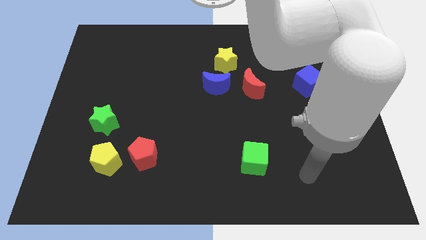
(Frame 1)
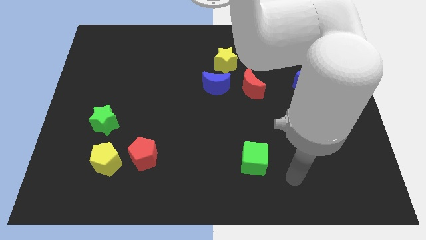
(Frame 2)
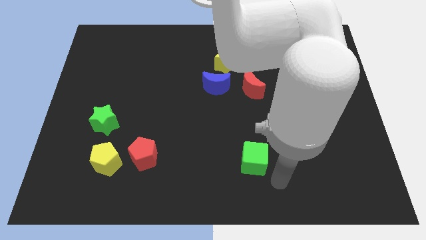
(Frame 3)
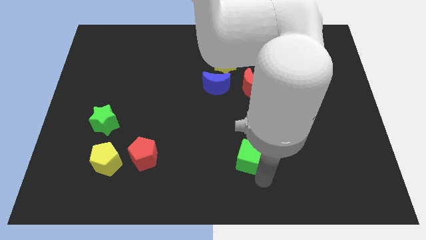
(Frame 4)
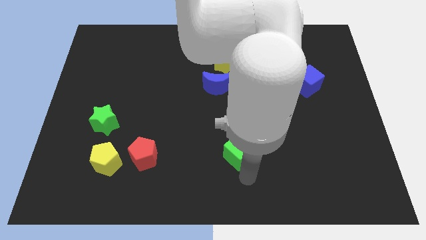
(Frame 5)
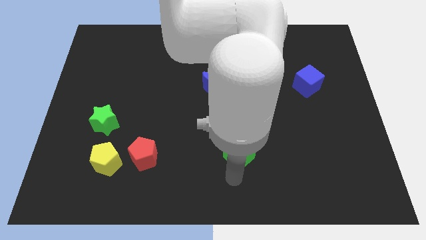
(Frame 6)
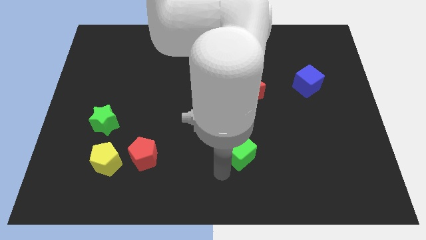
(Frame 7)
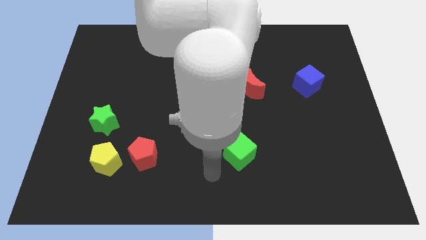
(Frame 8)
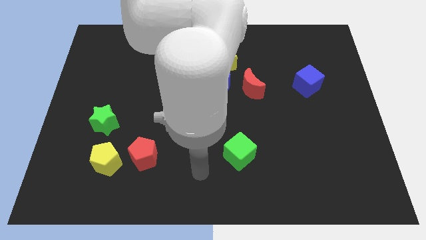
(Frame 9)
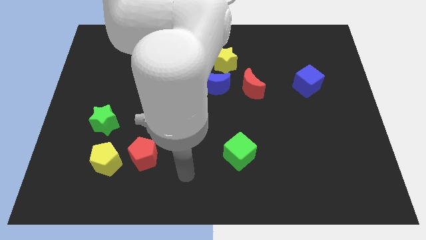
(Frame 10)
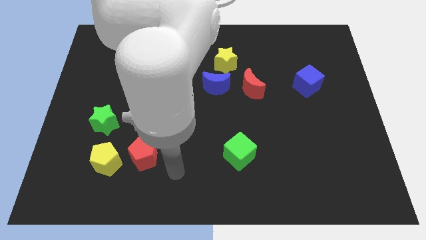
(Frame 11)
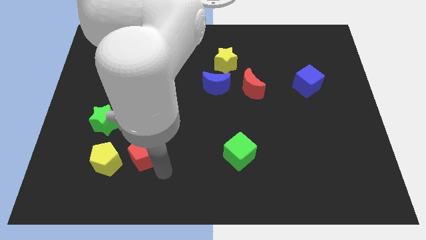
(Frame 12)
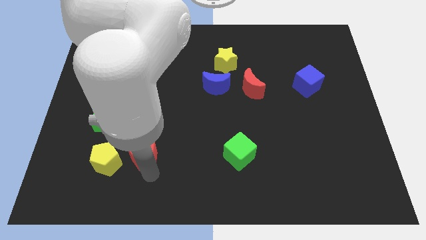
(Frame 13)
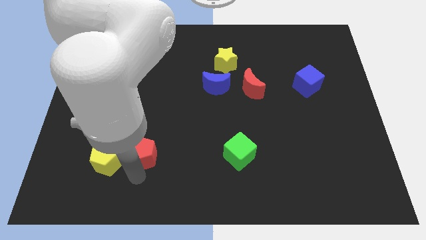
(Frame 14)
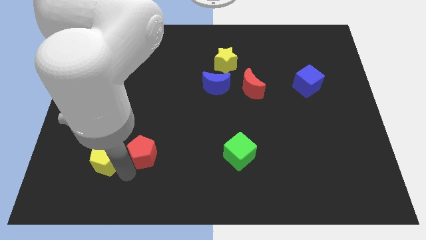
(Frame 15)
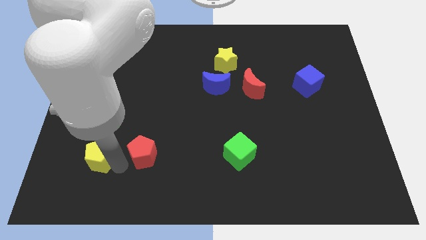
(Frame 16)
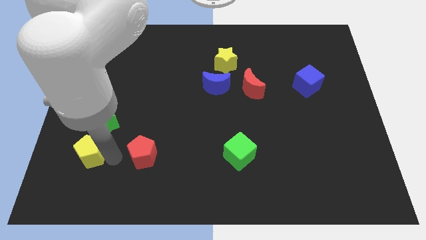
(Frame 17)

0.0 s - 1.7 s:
pull the red pentagon apart from the yellow pentagon

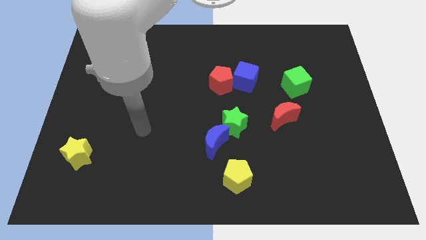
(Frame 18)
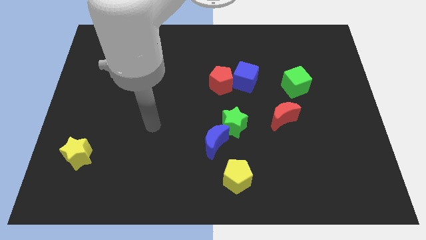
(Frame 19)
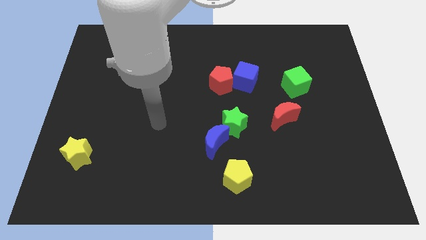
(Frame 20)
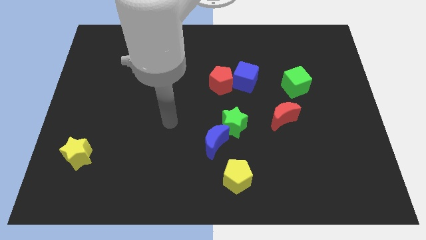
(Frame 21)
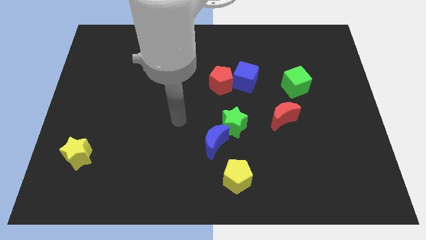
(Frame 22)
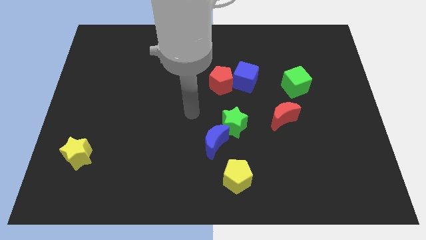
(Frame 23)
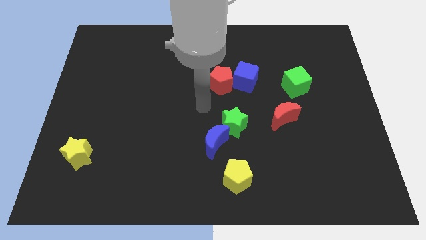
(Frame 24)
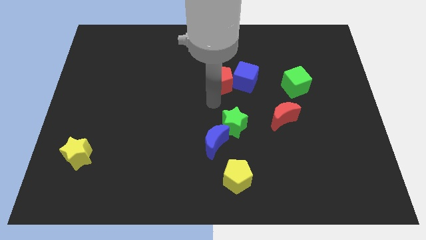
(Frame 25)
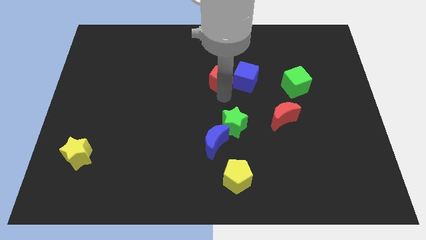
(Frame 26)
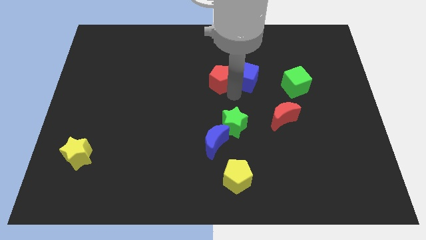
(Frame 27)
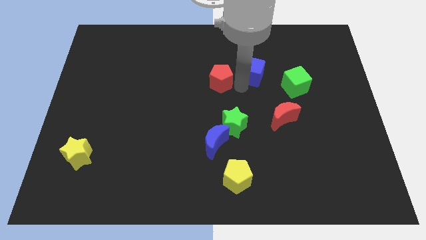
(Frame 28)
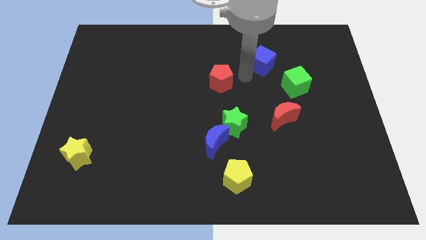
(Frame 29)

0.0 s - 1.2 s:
separate the red pentagon from the blue cube

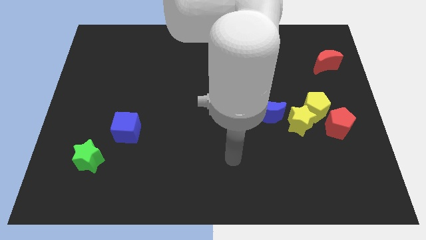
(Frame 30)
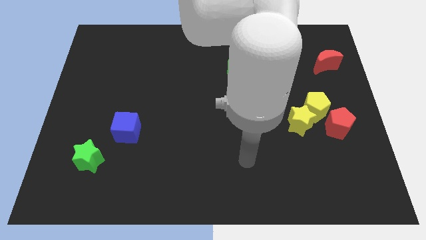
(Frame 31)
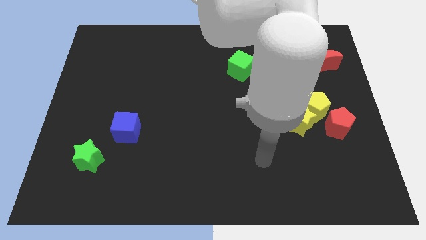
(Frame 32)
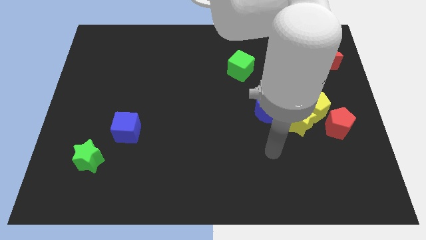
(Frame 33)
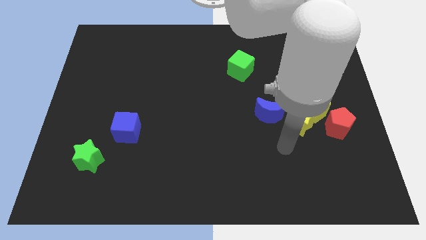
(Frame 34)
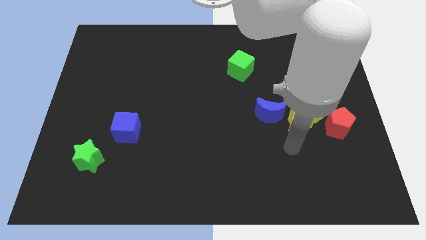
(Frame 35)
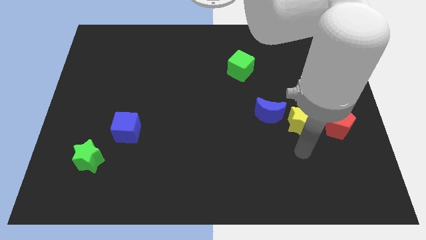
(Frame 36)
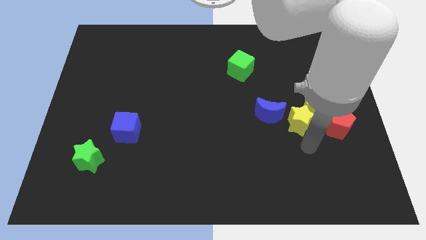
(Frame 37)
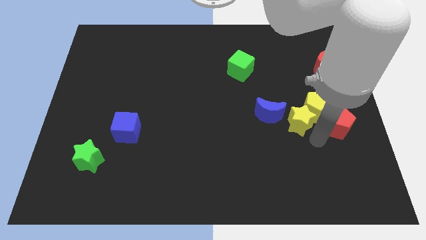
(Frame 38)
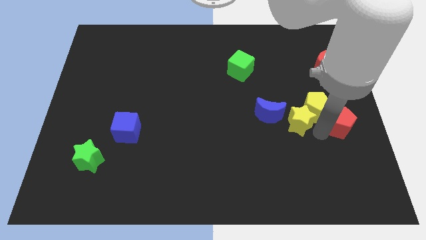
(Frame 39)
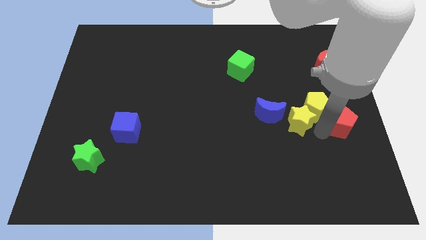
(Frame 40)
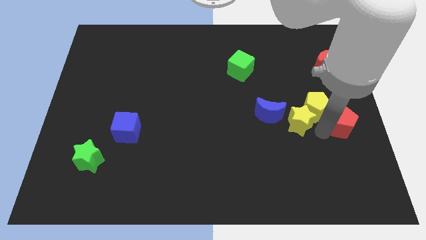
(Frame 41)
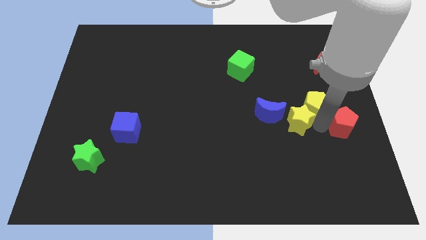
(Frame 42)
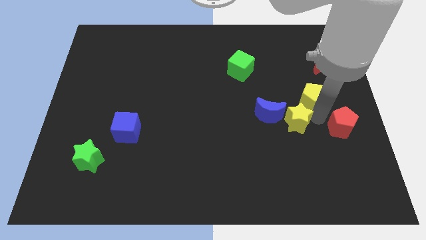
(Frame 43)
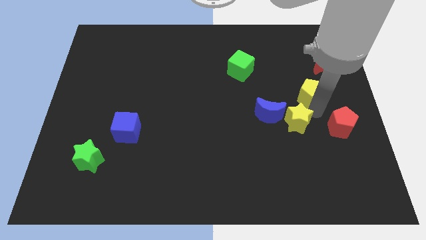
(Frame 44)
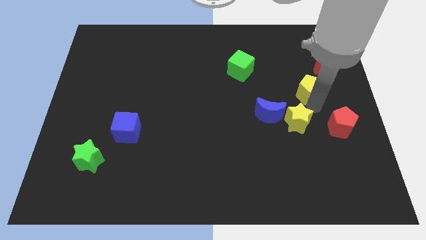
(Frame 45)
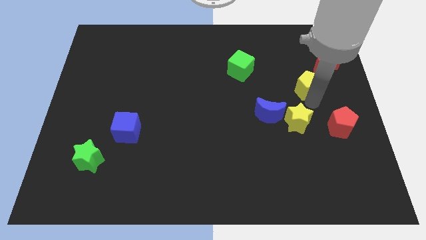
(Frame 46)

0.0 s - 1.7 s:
pull the yellow pentagon apart from the yellow star and red pentagon

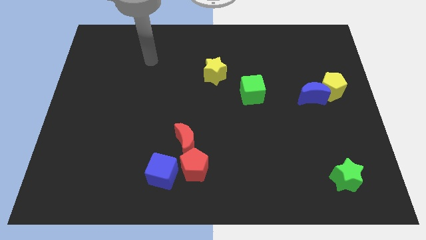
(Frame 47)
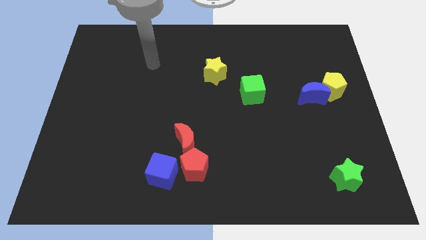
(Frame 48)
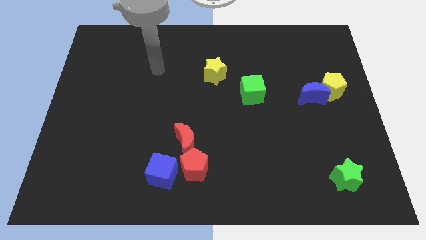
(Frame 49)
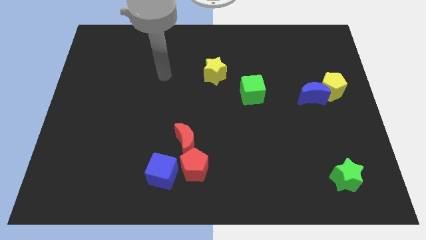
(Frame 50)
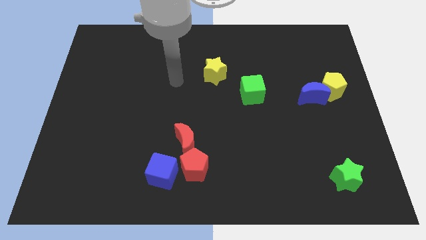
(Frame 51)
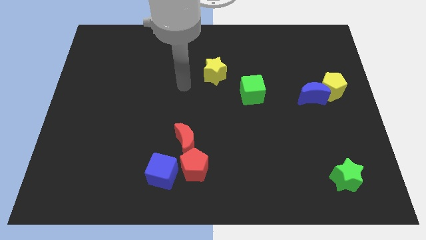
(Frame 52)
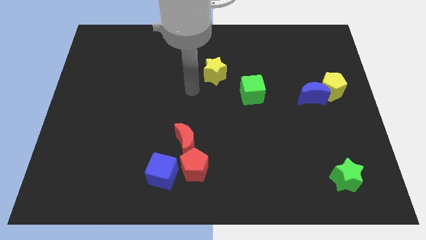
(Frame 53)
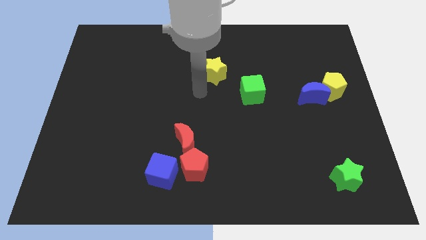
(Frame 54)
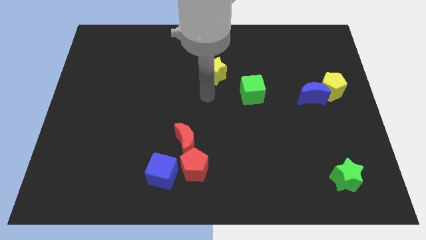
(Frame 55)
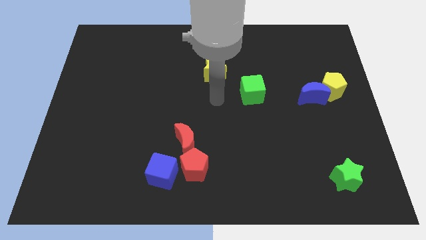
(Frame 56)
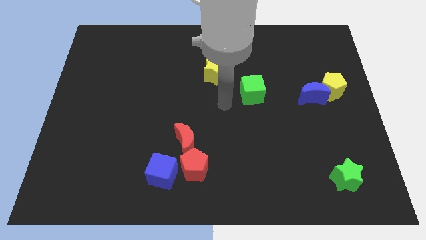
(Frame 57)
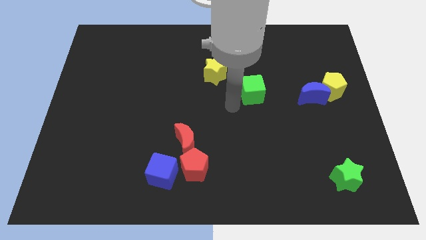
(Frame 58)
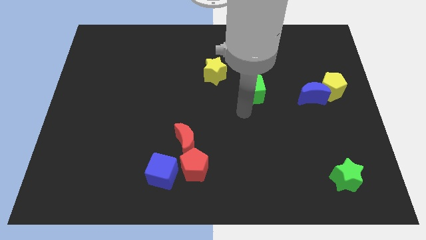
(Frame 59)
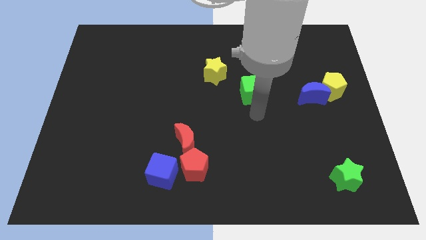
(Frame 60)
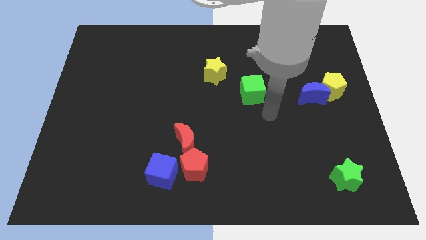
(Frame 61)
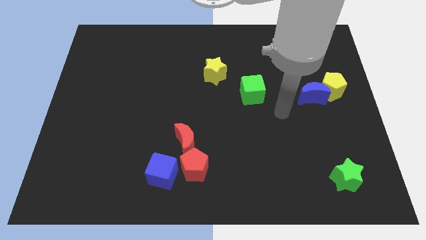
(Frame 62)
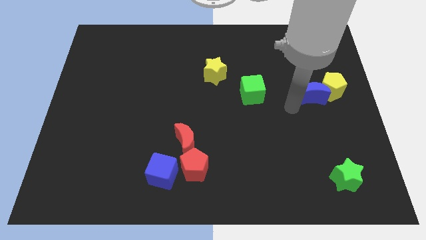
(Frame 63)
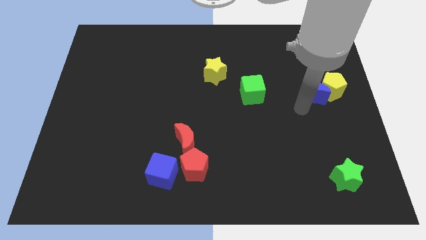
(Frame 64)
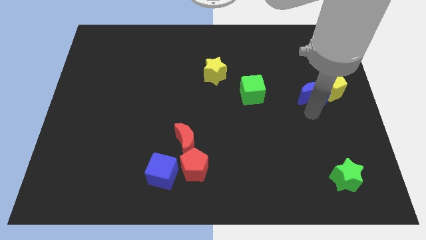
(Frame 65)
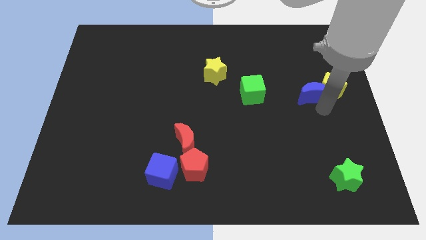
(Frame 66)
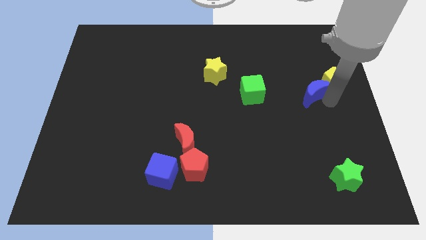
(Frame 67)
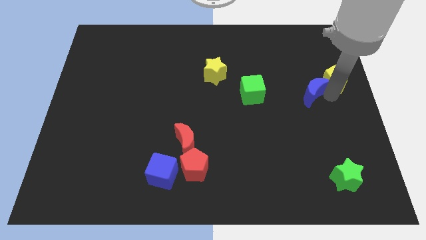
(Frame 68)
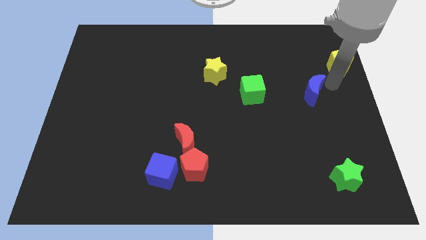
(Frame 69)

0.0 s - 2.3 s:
pull the blue moon apart from the yellow pentagon

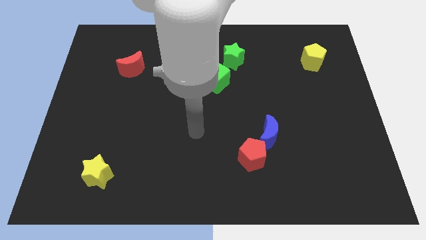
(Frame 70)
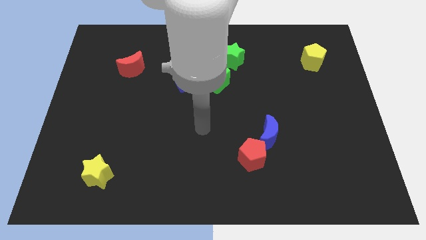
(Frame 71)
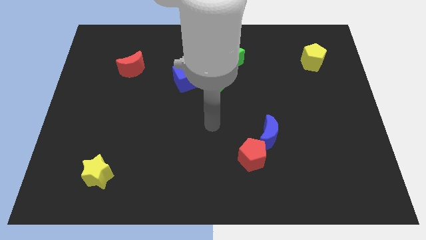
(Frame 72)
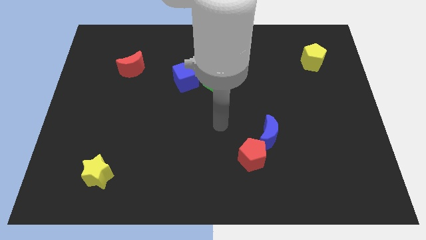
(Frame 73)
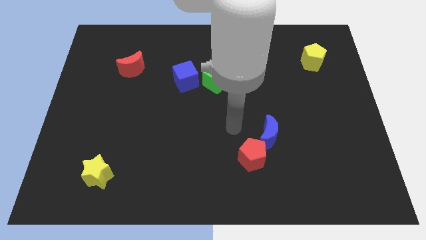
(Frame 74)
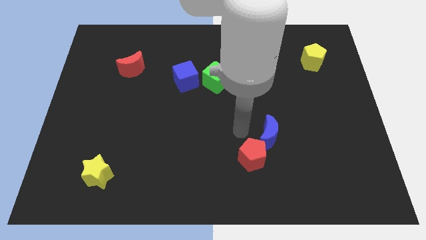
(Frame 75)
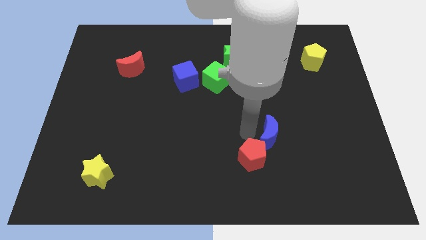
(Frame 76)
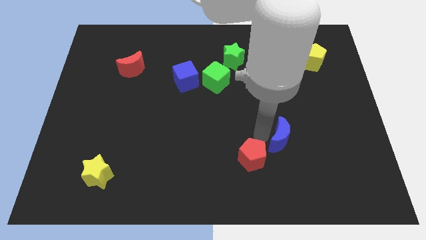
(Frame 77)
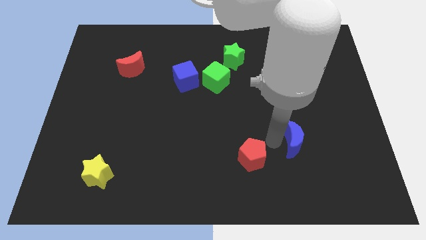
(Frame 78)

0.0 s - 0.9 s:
move the red pentagon away from the blue moon

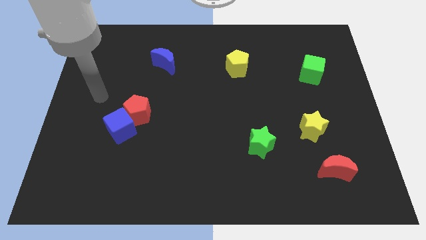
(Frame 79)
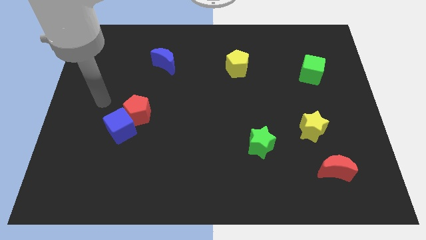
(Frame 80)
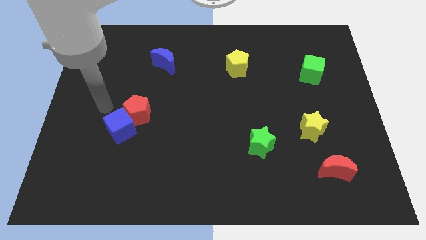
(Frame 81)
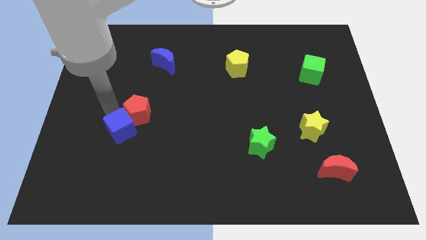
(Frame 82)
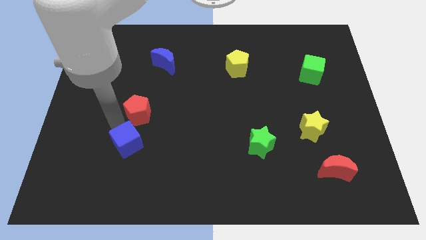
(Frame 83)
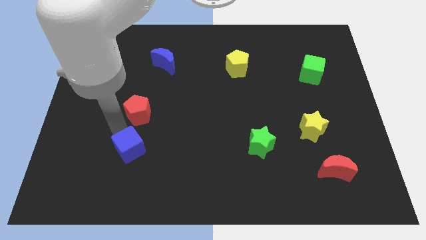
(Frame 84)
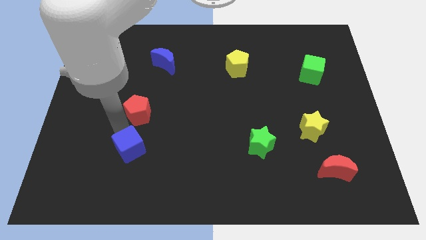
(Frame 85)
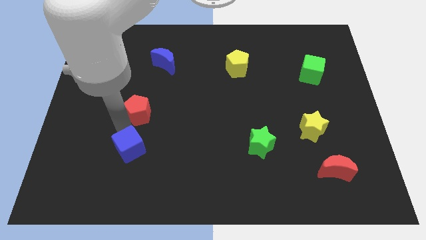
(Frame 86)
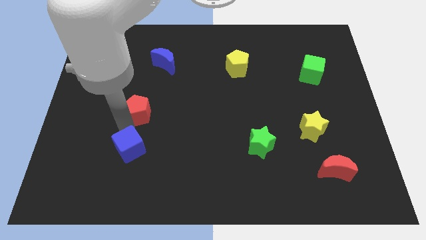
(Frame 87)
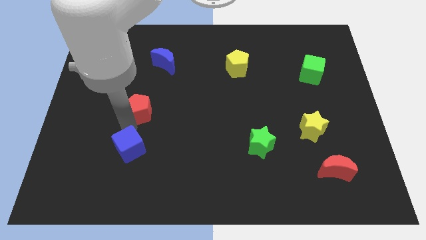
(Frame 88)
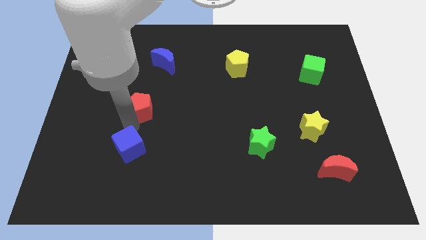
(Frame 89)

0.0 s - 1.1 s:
pull the red pentagon apart from the blue cube

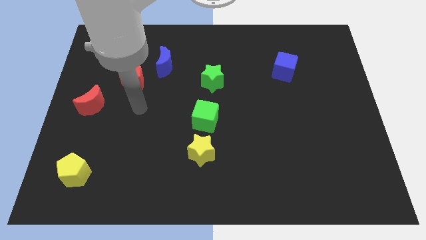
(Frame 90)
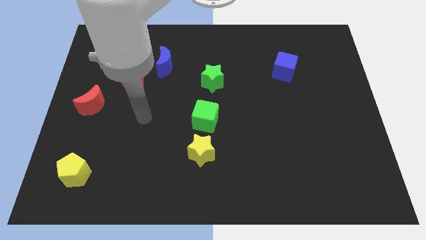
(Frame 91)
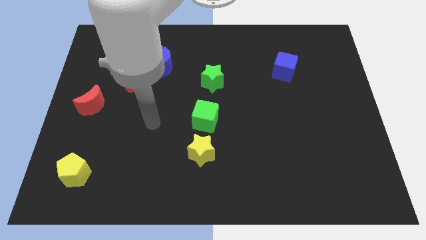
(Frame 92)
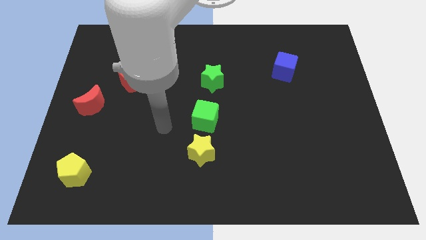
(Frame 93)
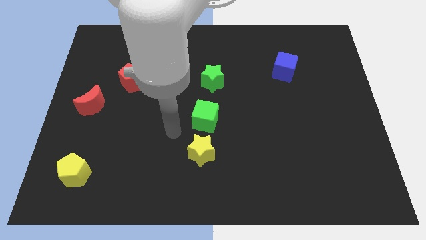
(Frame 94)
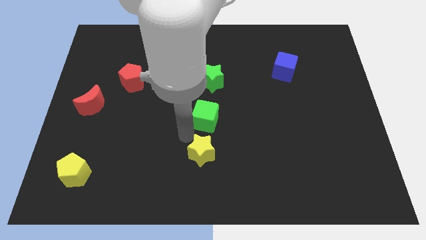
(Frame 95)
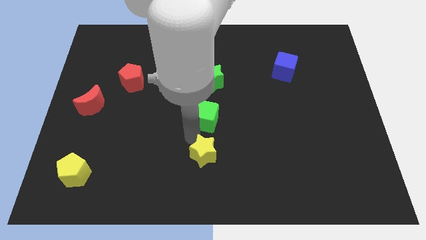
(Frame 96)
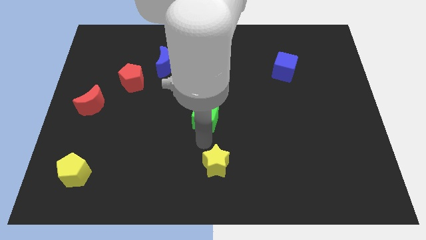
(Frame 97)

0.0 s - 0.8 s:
move the green cube away from the yellow star
